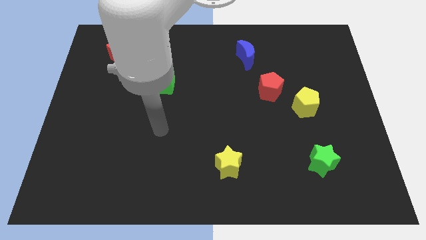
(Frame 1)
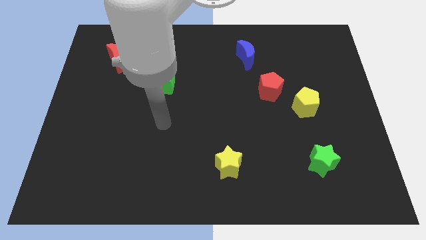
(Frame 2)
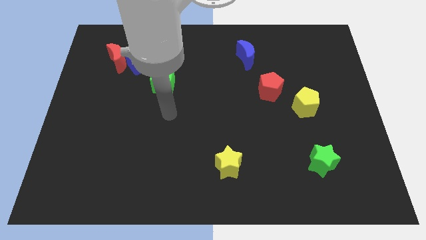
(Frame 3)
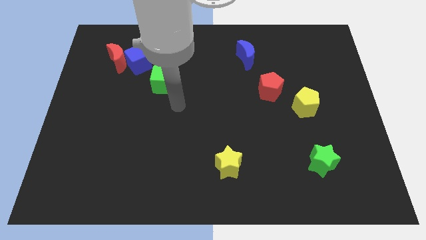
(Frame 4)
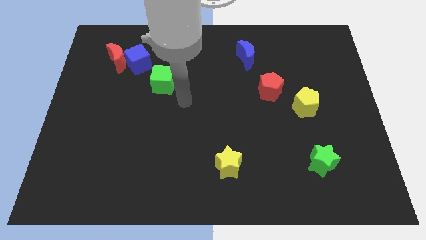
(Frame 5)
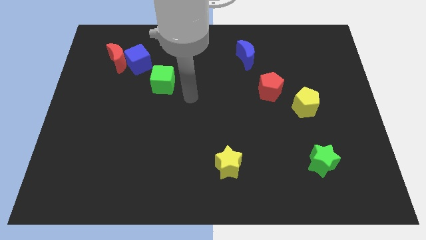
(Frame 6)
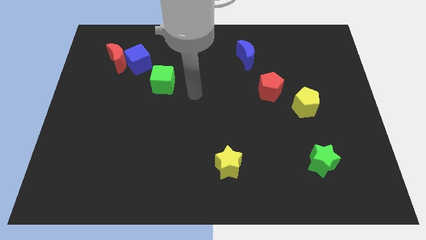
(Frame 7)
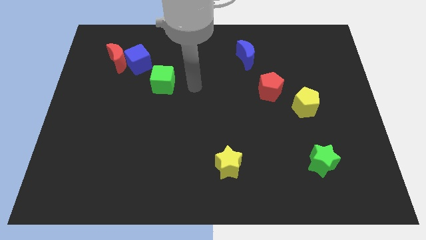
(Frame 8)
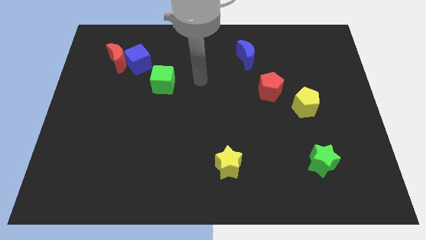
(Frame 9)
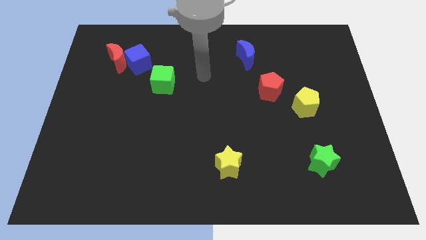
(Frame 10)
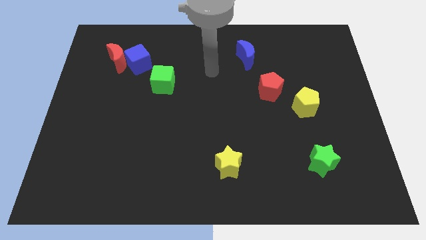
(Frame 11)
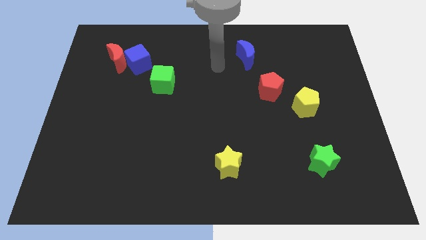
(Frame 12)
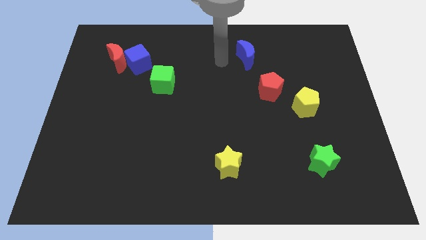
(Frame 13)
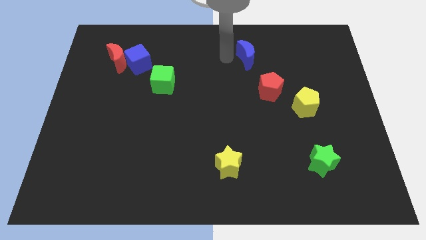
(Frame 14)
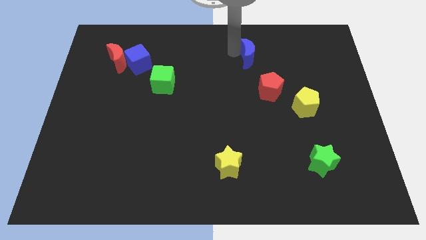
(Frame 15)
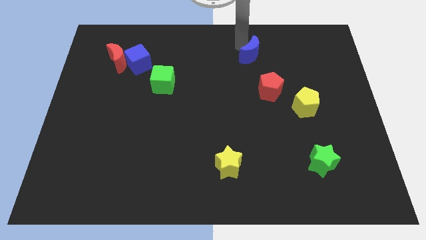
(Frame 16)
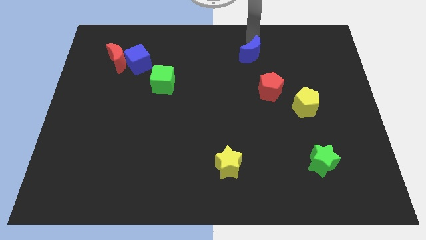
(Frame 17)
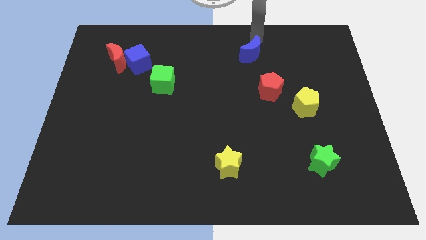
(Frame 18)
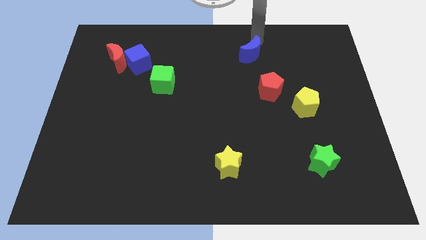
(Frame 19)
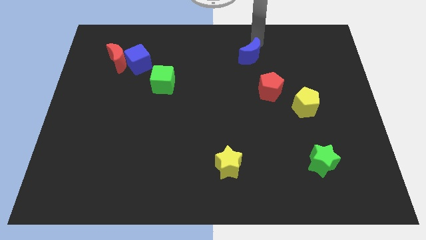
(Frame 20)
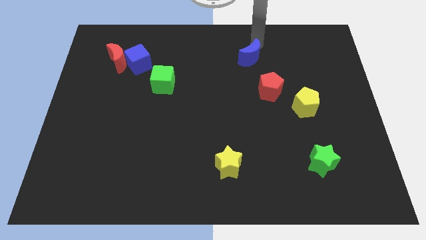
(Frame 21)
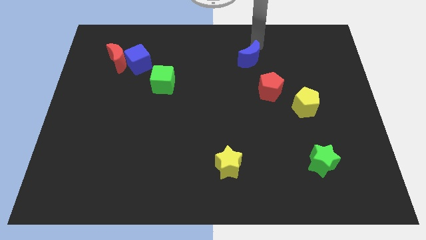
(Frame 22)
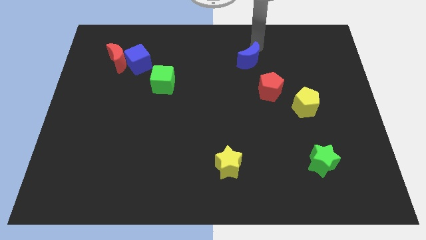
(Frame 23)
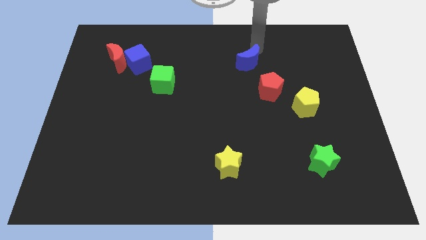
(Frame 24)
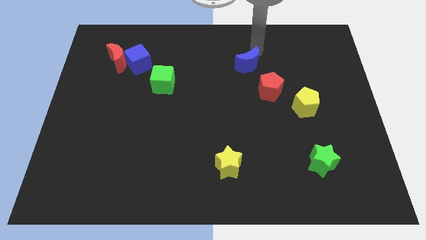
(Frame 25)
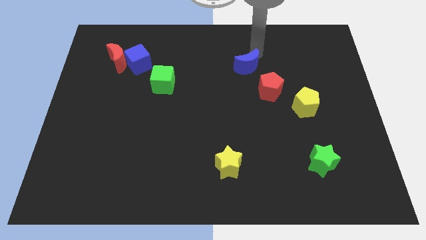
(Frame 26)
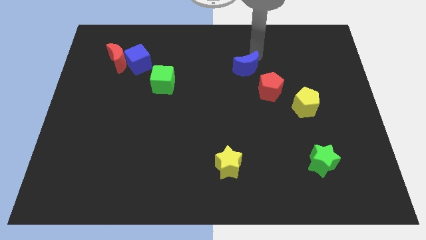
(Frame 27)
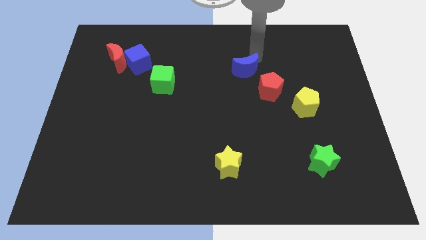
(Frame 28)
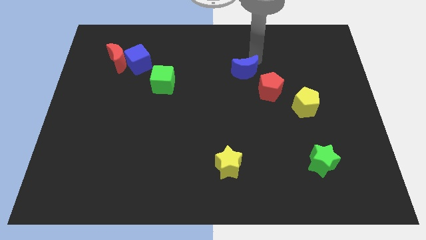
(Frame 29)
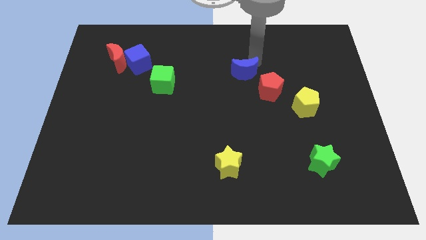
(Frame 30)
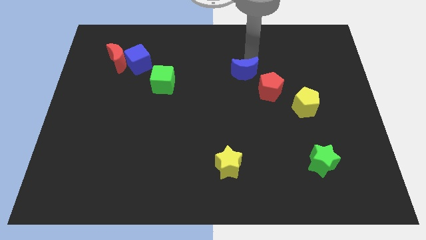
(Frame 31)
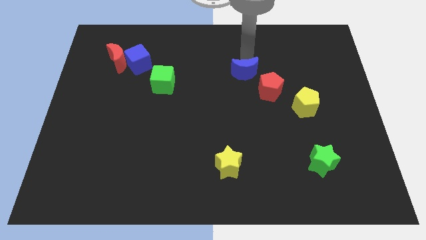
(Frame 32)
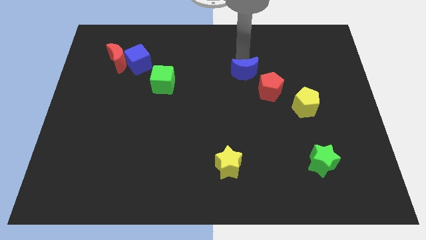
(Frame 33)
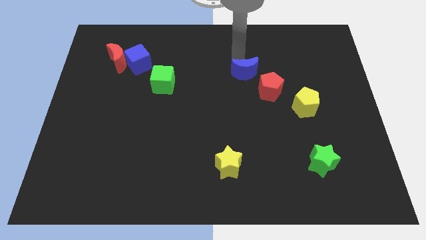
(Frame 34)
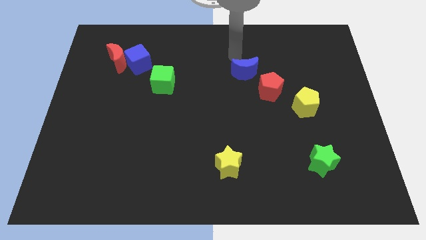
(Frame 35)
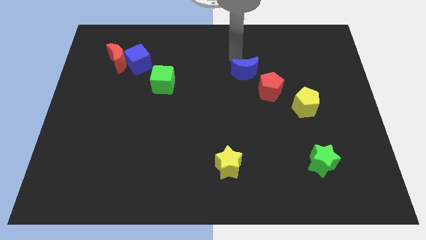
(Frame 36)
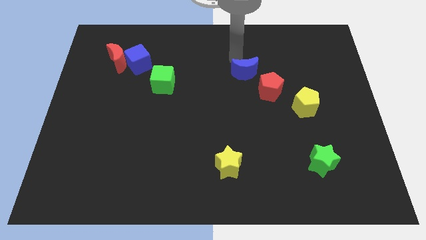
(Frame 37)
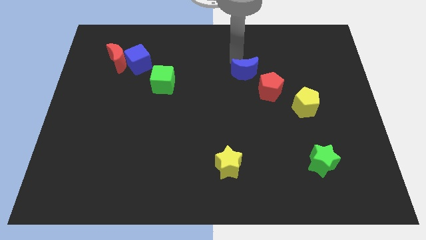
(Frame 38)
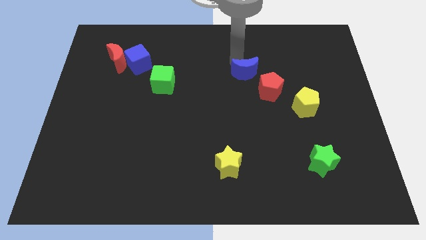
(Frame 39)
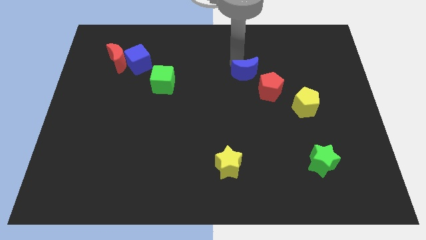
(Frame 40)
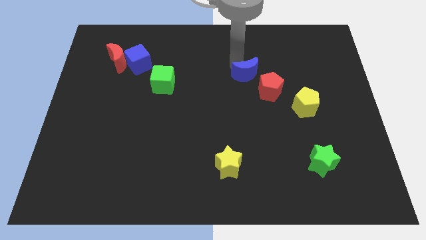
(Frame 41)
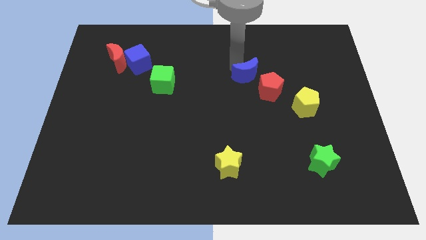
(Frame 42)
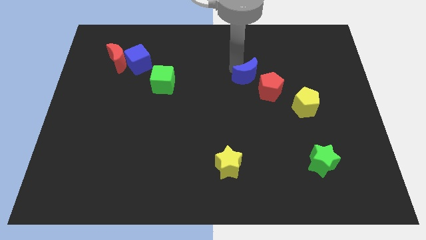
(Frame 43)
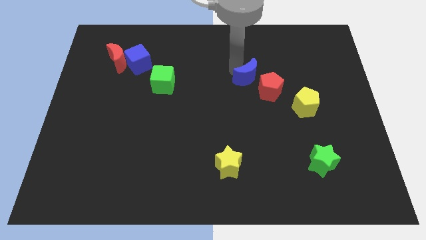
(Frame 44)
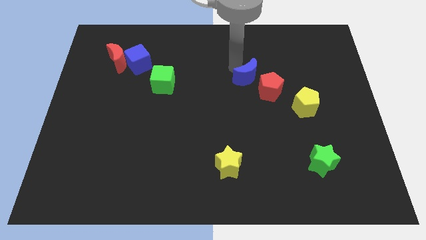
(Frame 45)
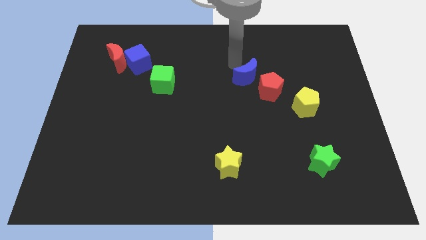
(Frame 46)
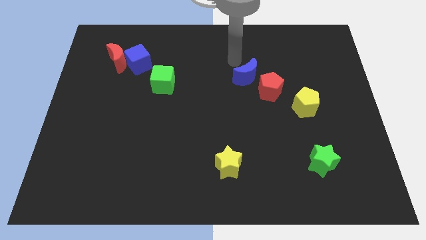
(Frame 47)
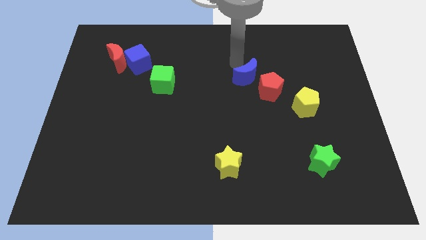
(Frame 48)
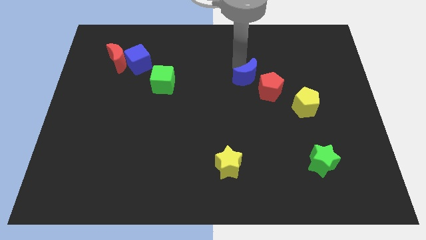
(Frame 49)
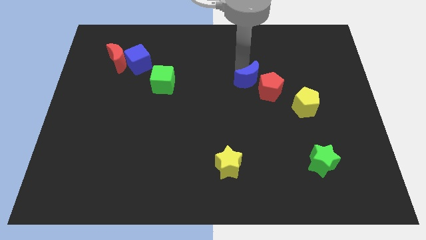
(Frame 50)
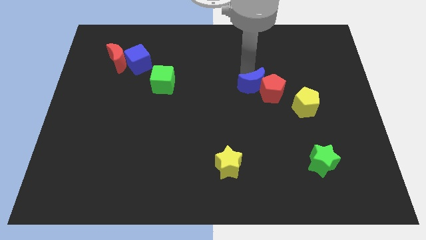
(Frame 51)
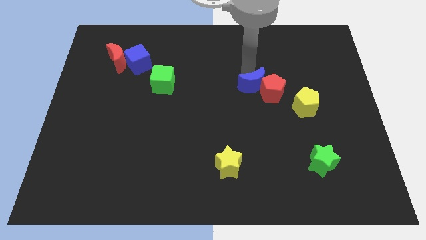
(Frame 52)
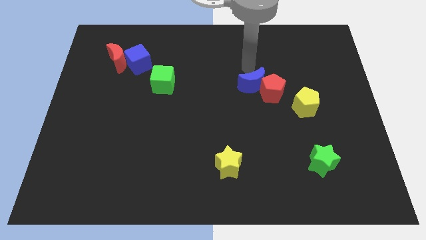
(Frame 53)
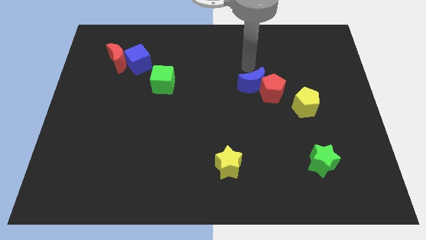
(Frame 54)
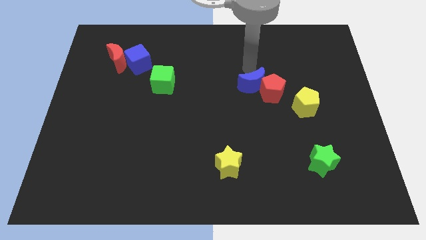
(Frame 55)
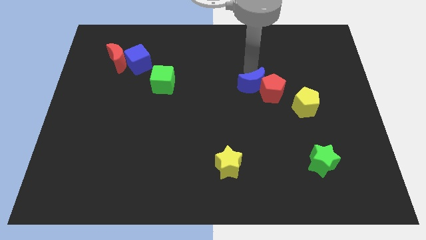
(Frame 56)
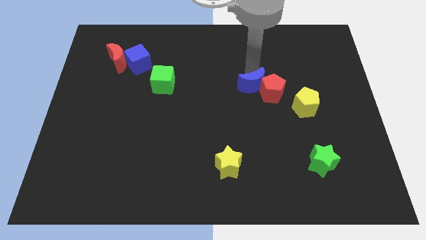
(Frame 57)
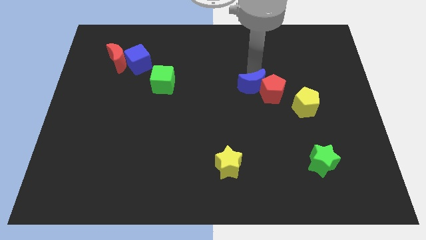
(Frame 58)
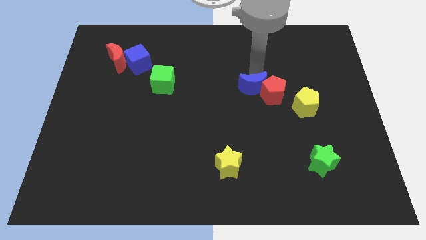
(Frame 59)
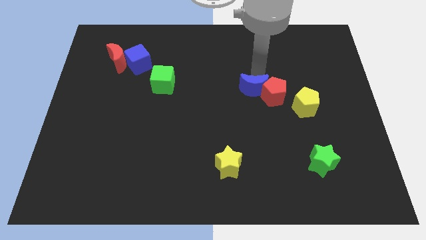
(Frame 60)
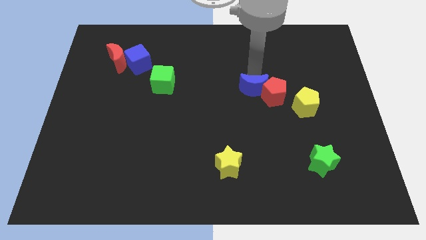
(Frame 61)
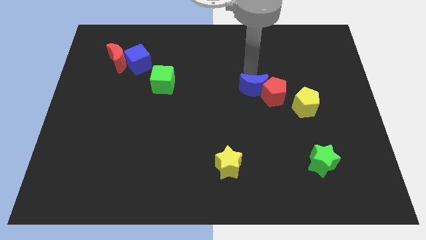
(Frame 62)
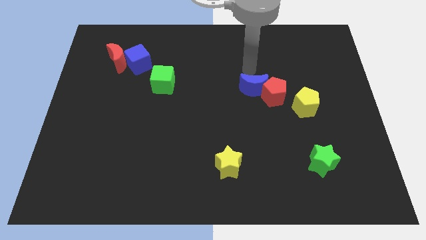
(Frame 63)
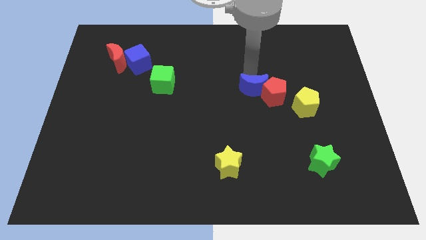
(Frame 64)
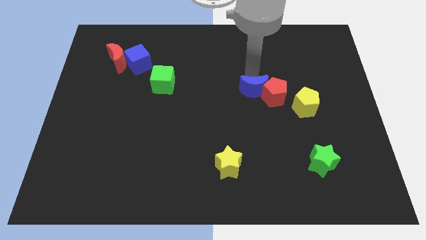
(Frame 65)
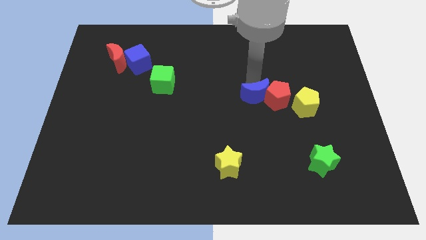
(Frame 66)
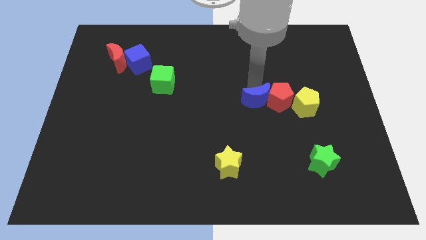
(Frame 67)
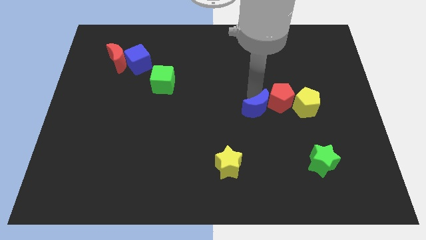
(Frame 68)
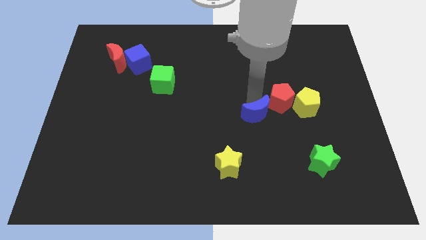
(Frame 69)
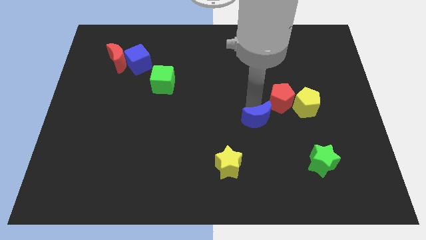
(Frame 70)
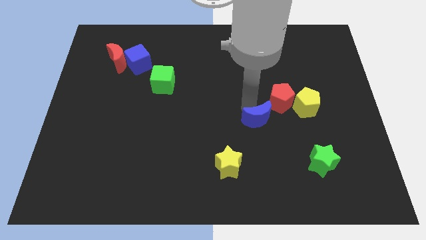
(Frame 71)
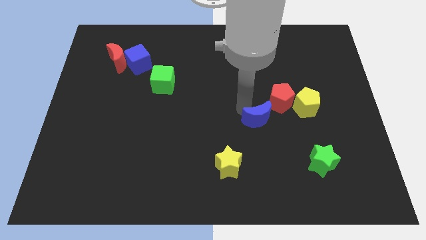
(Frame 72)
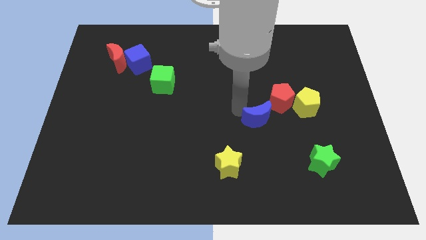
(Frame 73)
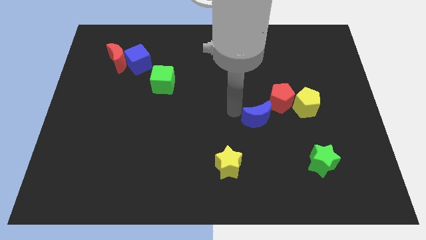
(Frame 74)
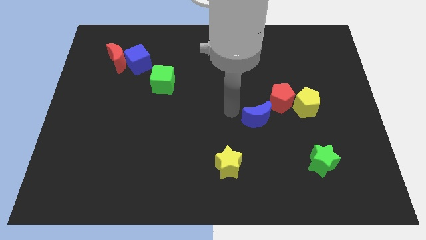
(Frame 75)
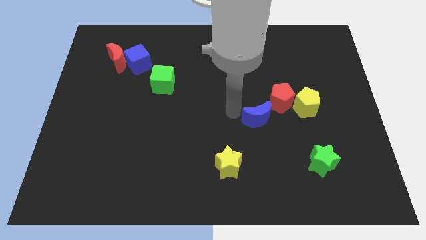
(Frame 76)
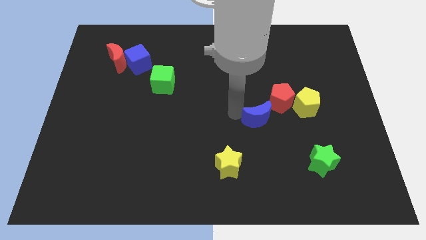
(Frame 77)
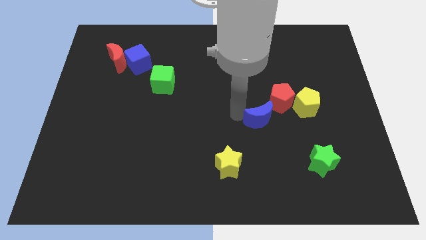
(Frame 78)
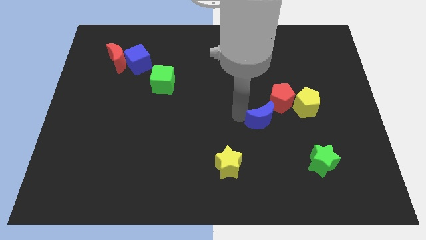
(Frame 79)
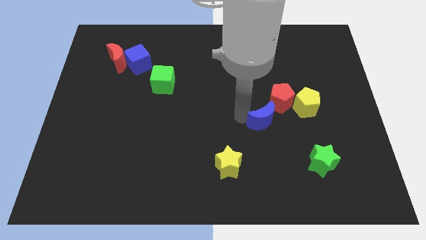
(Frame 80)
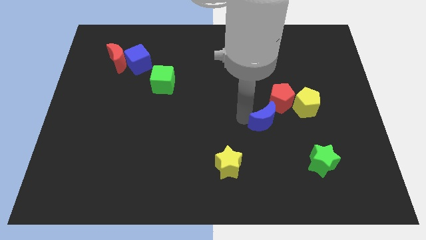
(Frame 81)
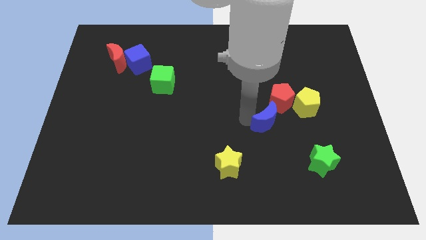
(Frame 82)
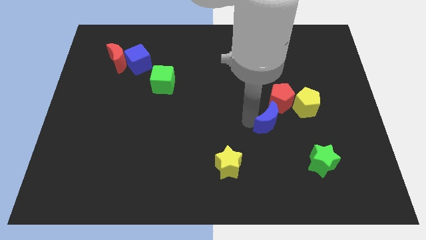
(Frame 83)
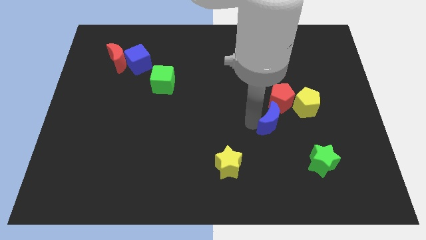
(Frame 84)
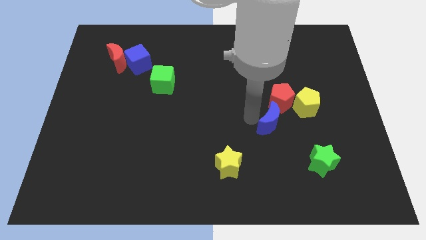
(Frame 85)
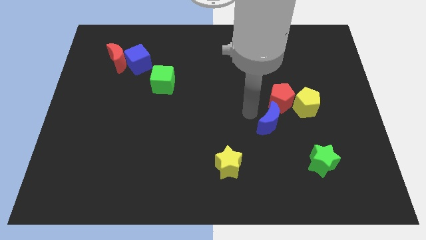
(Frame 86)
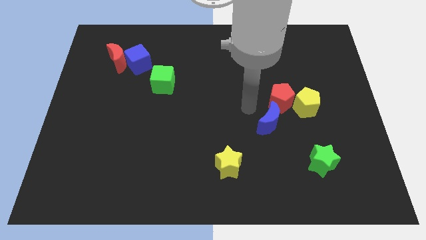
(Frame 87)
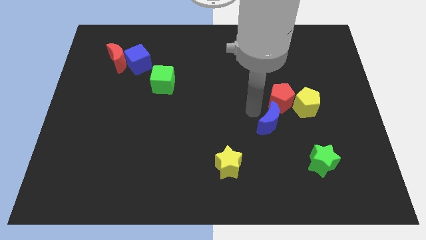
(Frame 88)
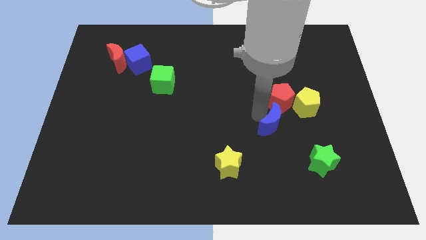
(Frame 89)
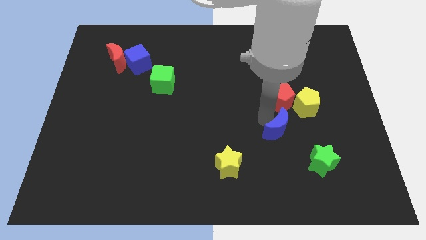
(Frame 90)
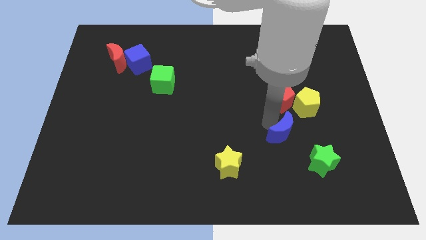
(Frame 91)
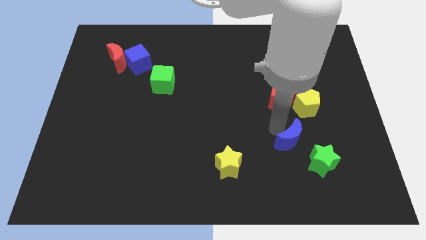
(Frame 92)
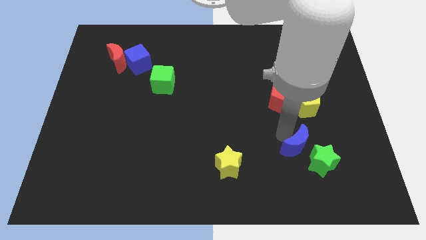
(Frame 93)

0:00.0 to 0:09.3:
move the blue moon towards the green star
